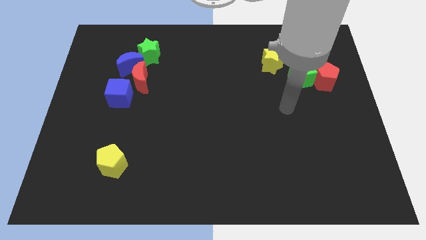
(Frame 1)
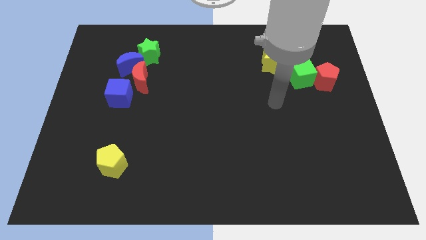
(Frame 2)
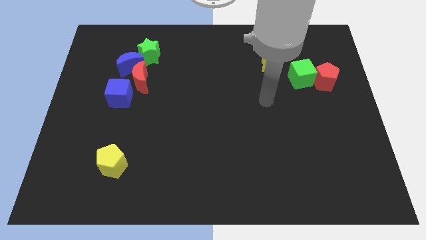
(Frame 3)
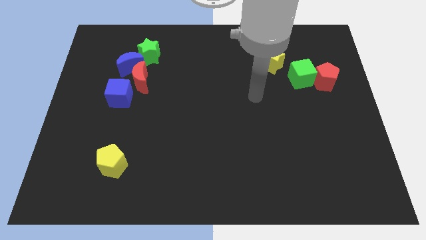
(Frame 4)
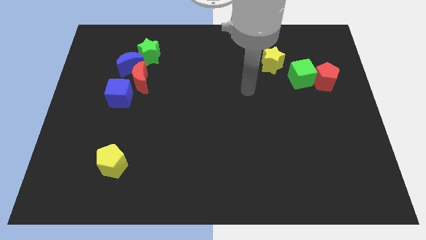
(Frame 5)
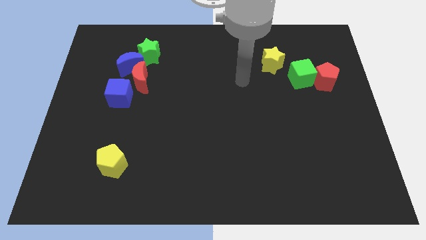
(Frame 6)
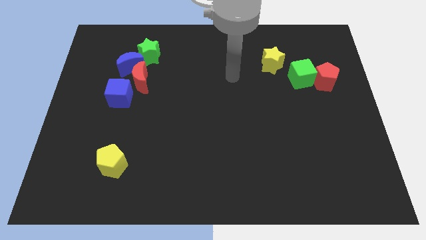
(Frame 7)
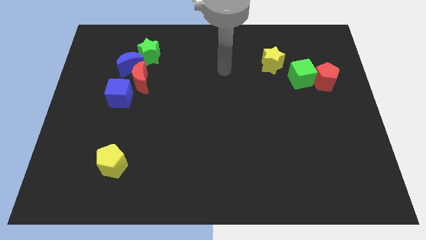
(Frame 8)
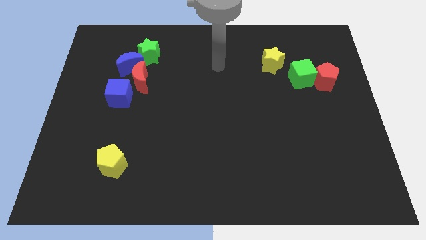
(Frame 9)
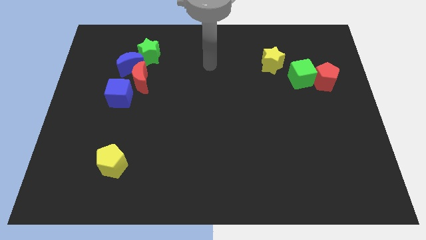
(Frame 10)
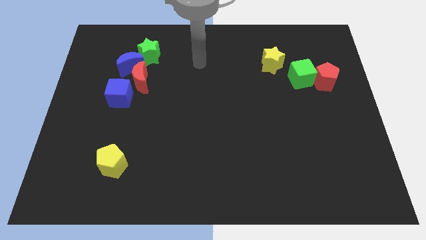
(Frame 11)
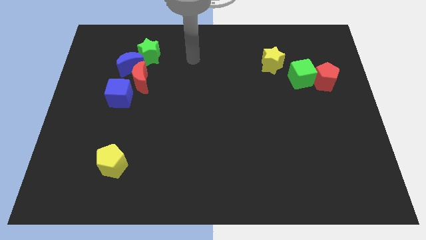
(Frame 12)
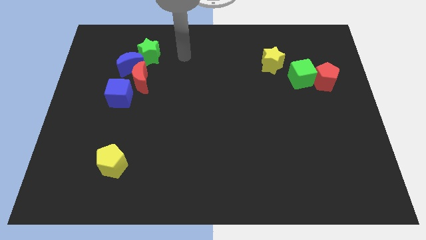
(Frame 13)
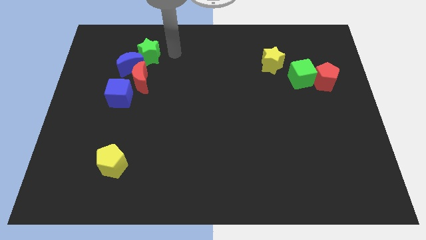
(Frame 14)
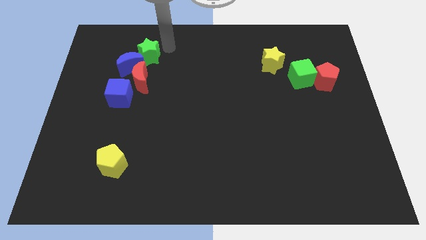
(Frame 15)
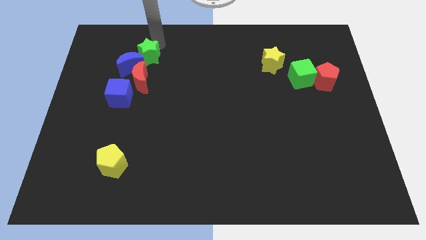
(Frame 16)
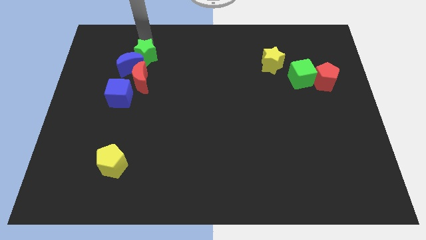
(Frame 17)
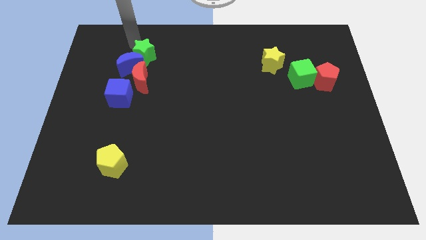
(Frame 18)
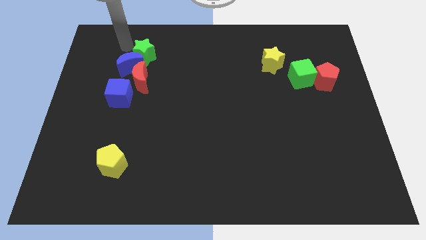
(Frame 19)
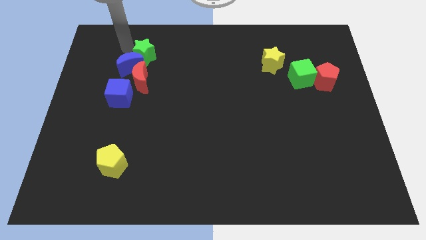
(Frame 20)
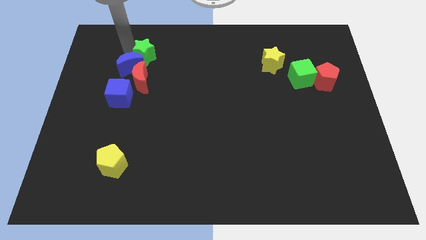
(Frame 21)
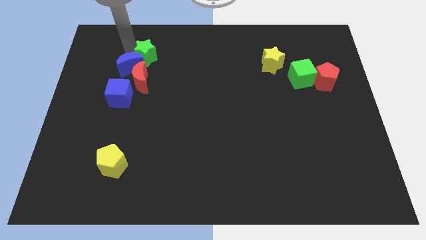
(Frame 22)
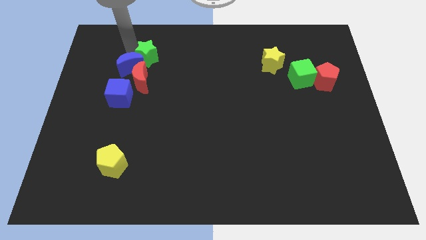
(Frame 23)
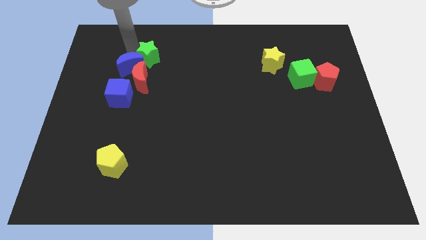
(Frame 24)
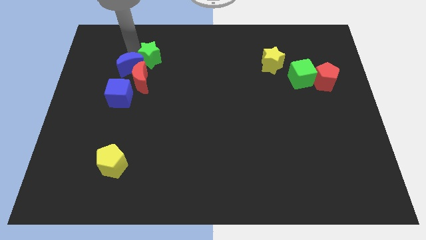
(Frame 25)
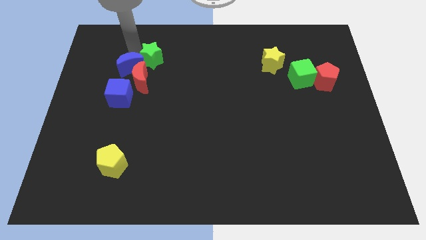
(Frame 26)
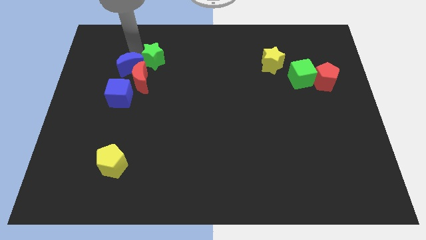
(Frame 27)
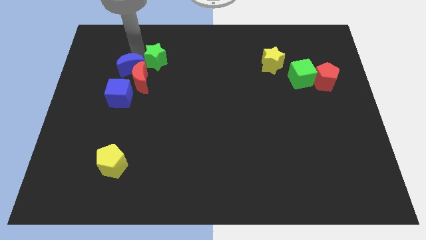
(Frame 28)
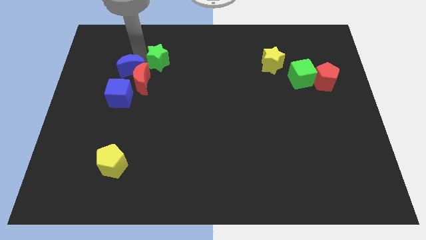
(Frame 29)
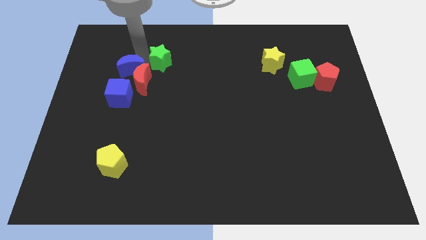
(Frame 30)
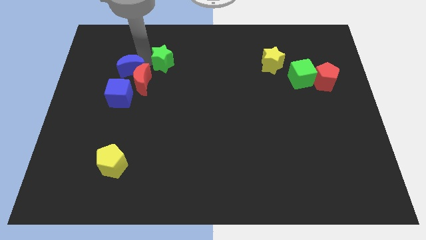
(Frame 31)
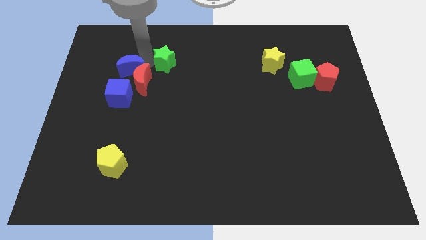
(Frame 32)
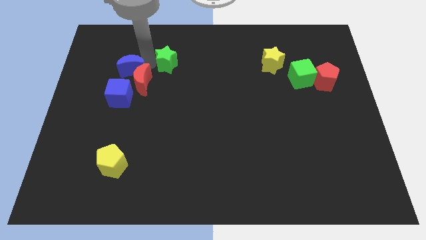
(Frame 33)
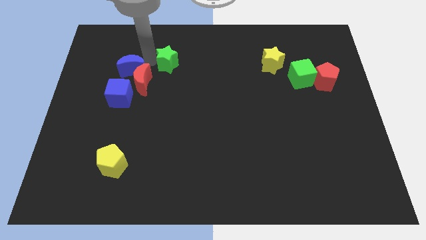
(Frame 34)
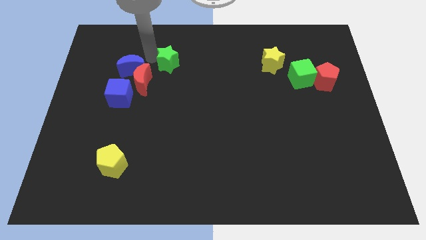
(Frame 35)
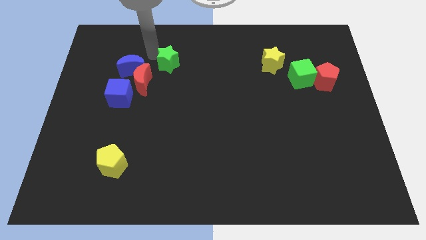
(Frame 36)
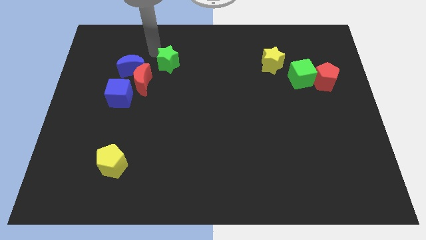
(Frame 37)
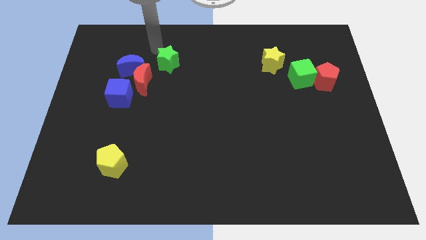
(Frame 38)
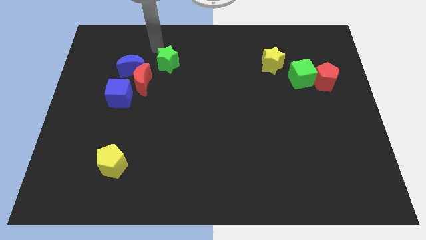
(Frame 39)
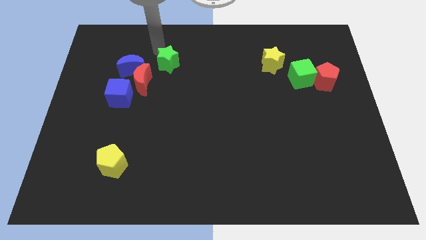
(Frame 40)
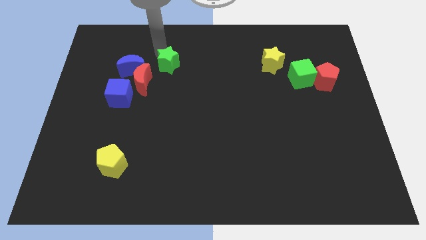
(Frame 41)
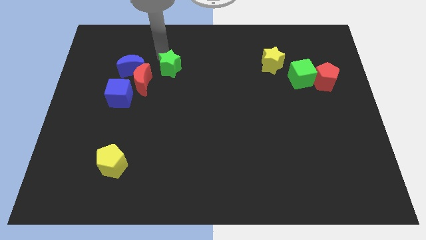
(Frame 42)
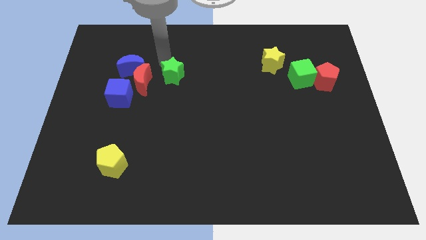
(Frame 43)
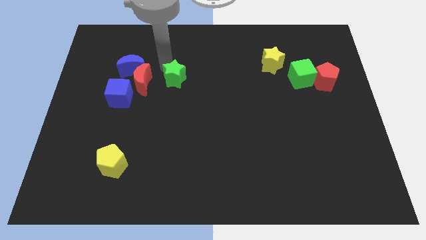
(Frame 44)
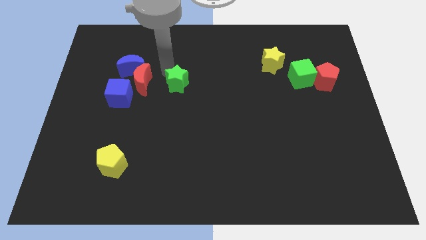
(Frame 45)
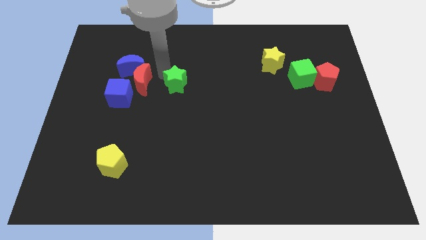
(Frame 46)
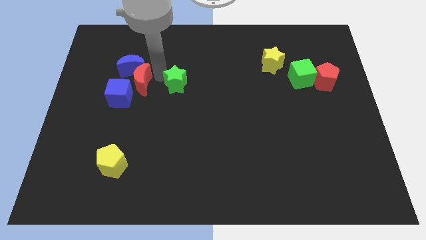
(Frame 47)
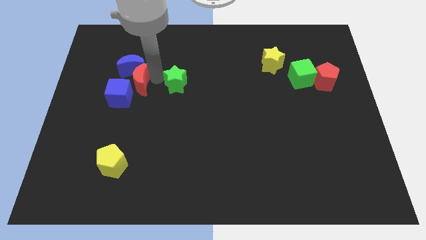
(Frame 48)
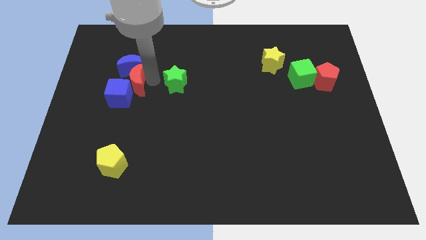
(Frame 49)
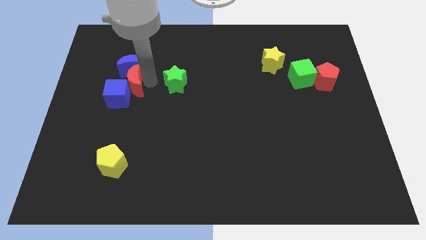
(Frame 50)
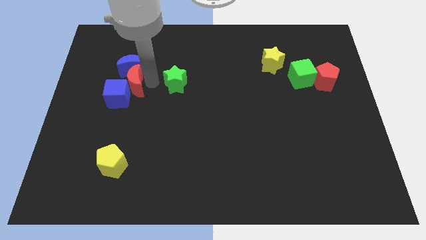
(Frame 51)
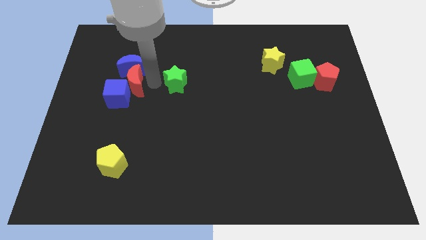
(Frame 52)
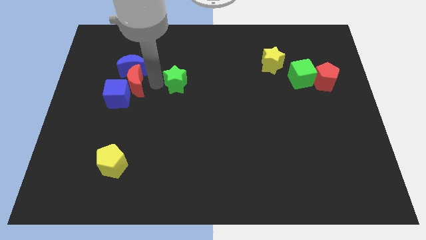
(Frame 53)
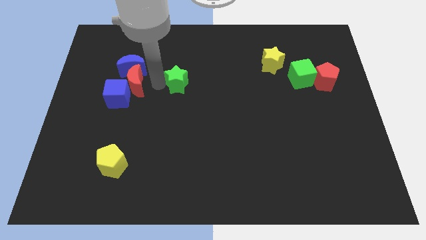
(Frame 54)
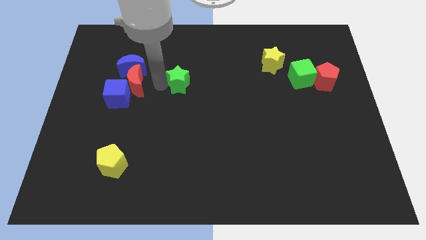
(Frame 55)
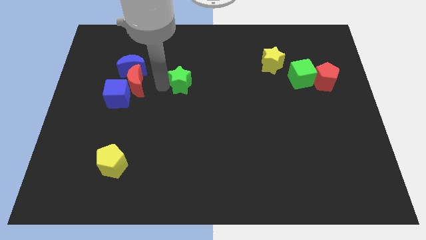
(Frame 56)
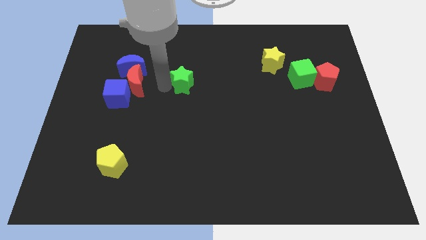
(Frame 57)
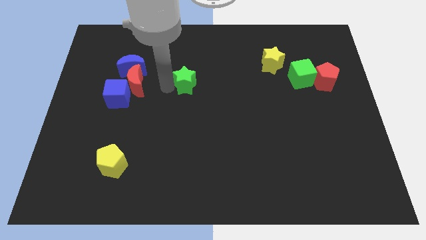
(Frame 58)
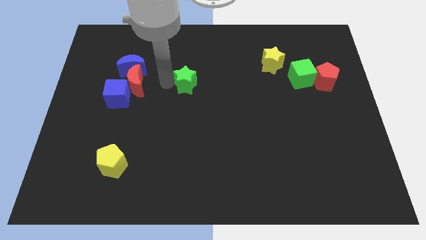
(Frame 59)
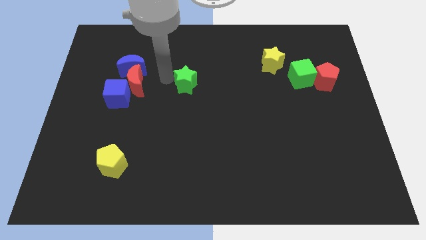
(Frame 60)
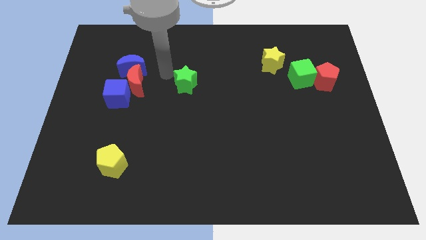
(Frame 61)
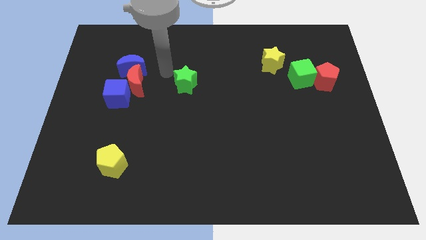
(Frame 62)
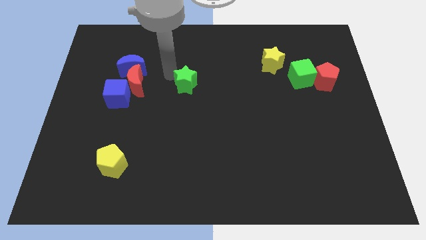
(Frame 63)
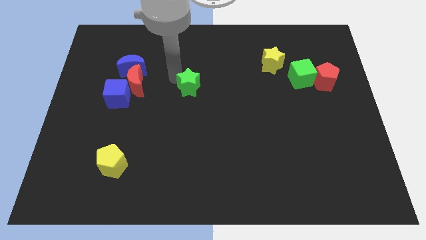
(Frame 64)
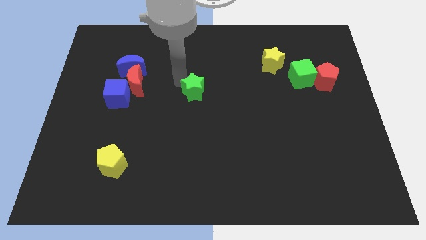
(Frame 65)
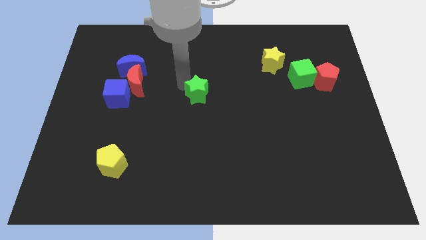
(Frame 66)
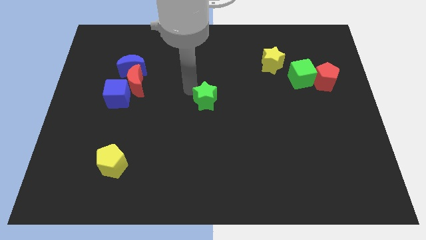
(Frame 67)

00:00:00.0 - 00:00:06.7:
slide the green star diagonally downwards and right

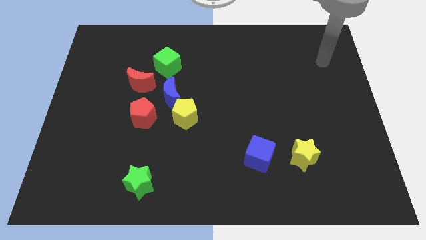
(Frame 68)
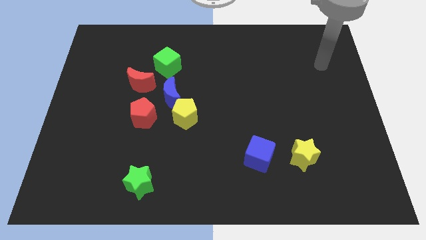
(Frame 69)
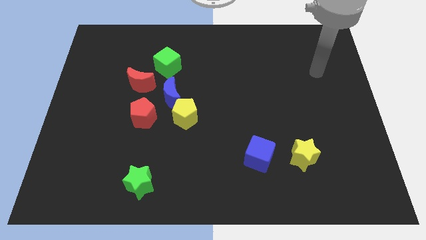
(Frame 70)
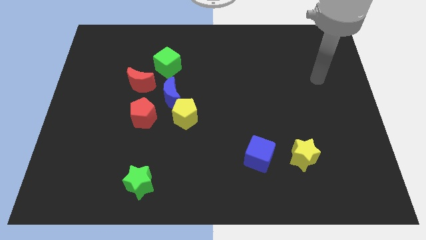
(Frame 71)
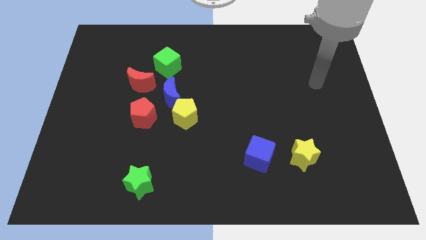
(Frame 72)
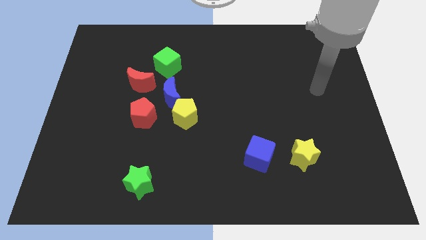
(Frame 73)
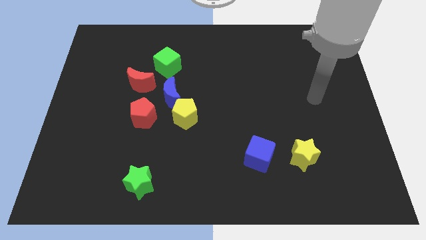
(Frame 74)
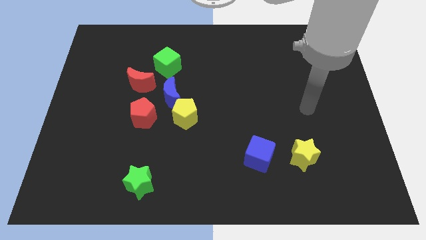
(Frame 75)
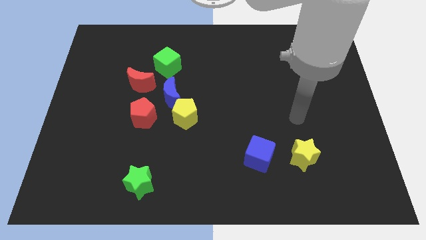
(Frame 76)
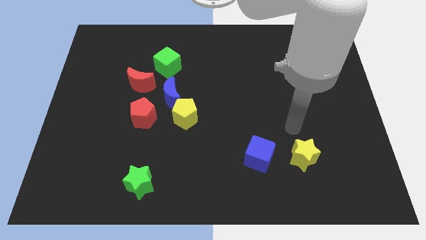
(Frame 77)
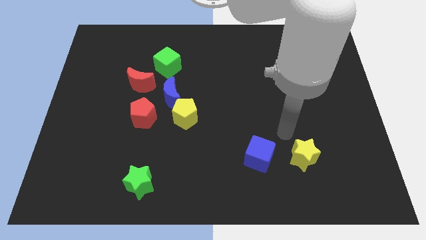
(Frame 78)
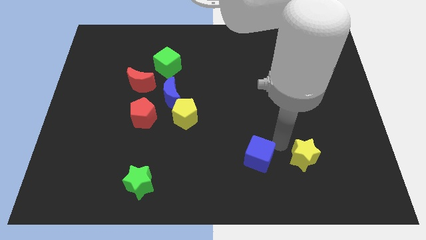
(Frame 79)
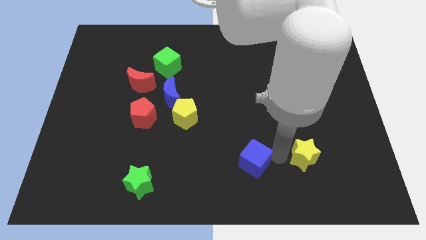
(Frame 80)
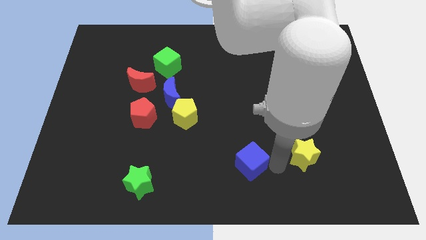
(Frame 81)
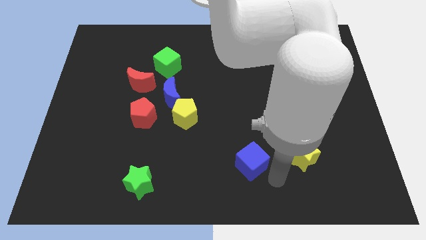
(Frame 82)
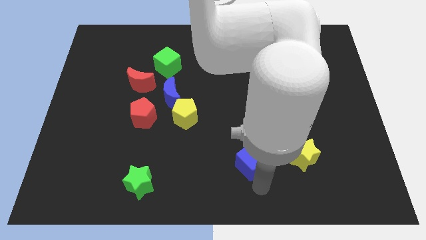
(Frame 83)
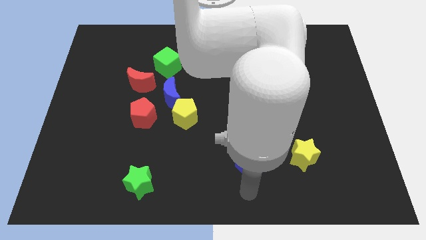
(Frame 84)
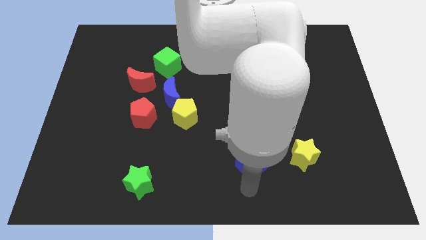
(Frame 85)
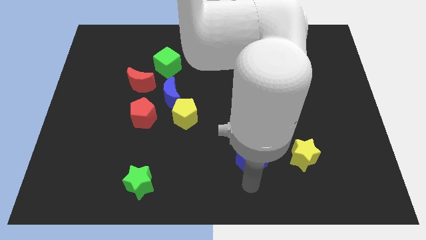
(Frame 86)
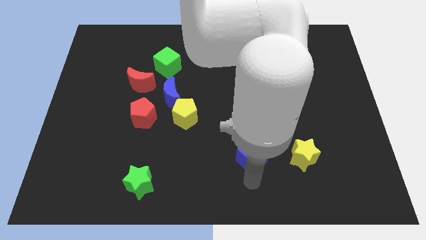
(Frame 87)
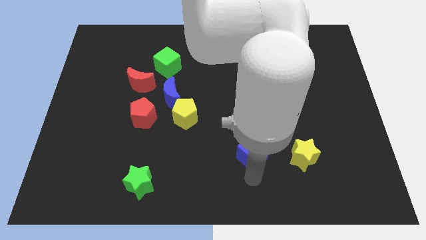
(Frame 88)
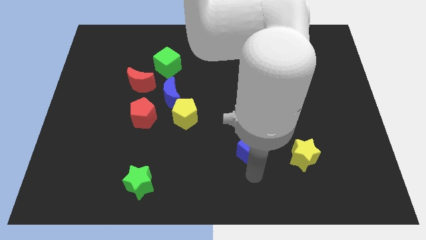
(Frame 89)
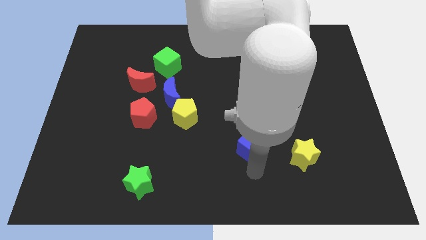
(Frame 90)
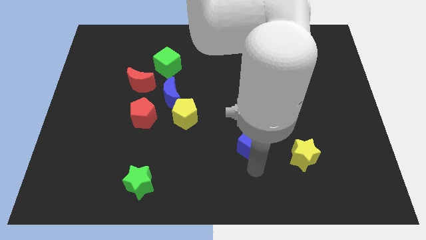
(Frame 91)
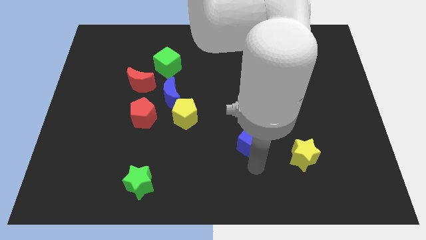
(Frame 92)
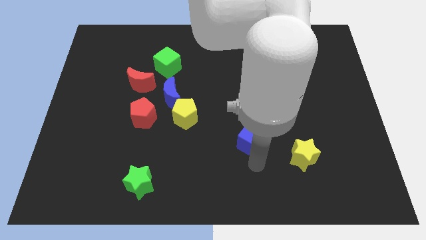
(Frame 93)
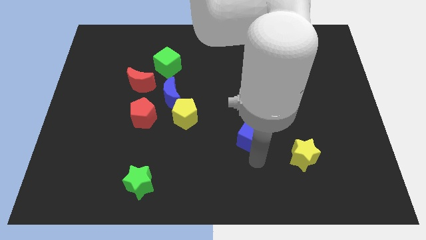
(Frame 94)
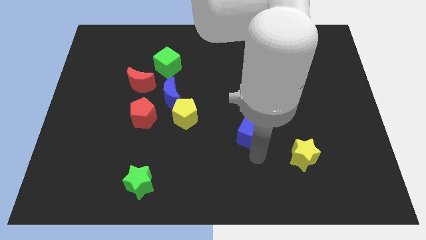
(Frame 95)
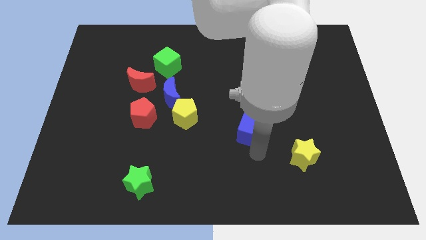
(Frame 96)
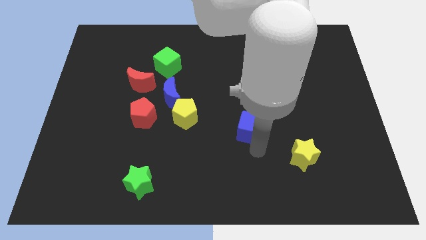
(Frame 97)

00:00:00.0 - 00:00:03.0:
push the blue cube somewhat up
